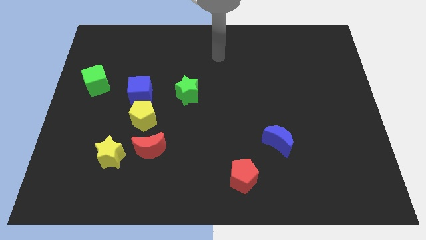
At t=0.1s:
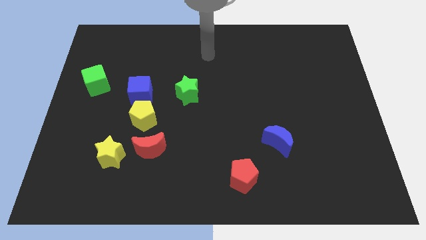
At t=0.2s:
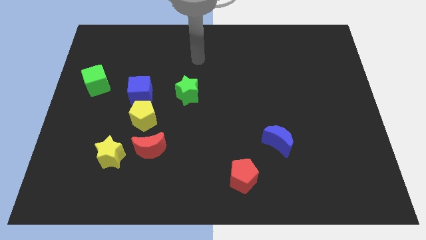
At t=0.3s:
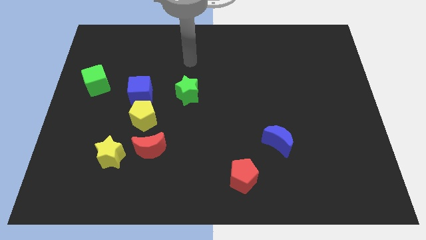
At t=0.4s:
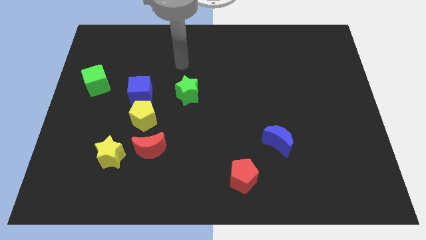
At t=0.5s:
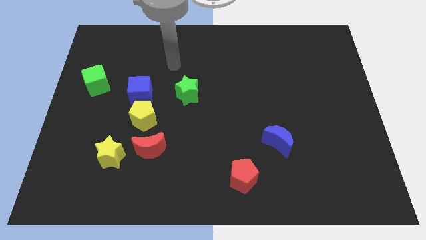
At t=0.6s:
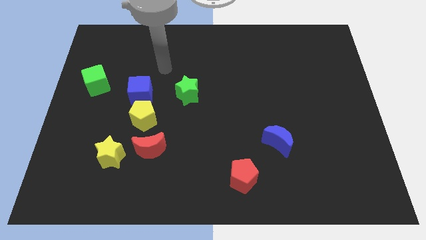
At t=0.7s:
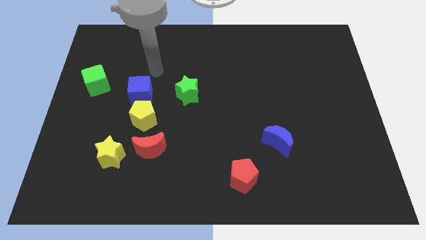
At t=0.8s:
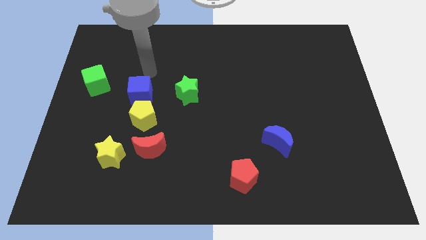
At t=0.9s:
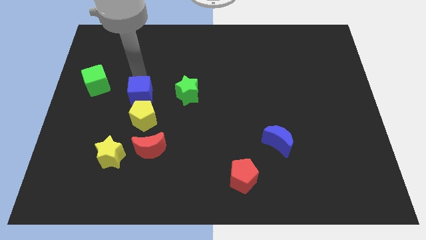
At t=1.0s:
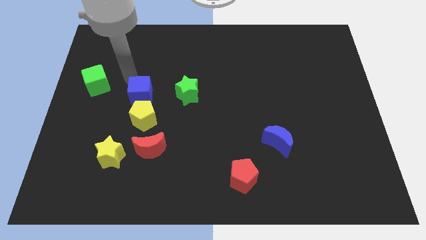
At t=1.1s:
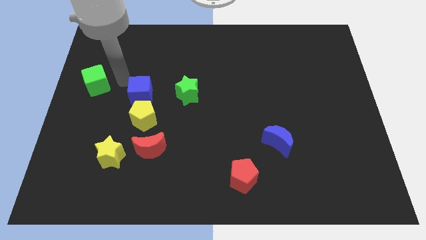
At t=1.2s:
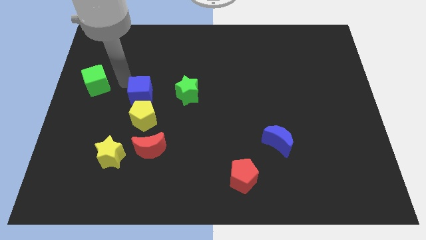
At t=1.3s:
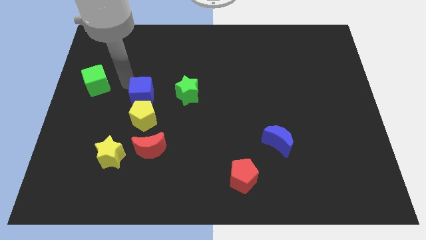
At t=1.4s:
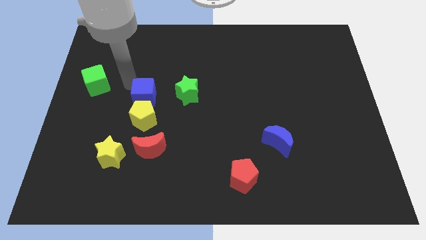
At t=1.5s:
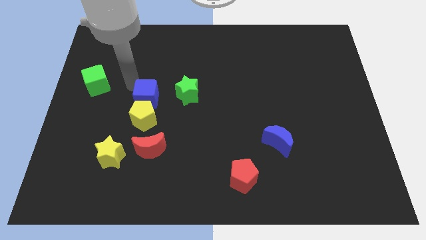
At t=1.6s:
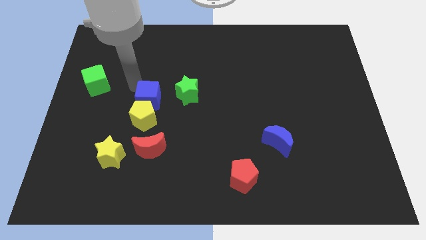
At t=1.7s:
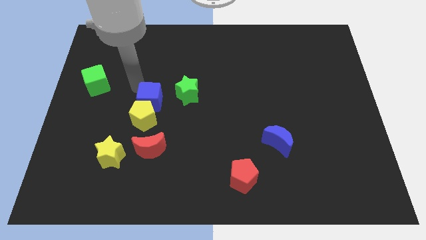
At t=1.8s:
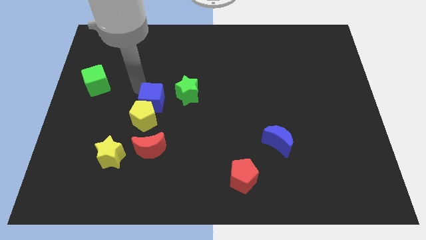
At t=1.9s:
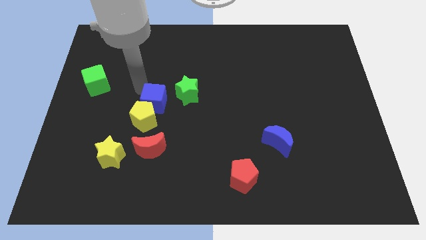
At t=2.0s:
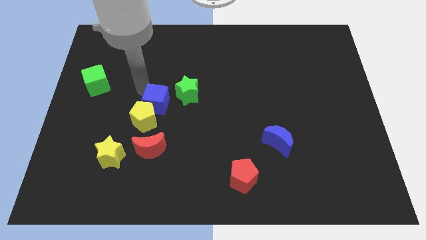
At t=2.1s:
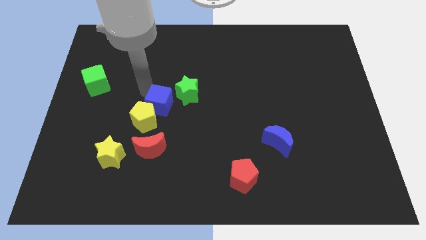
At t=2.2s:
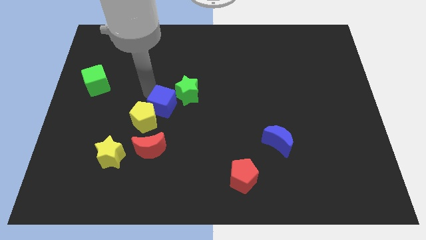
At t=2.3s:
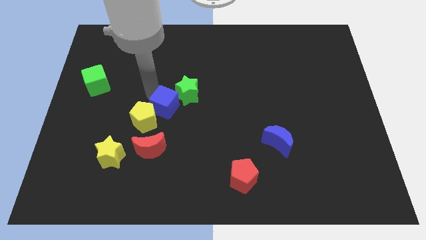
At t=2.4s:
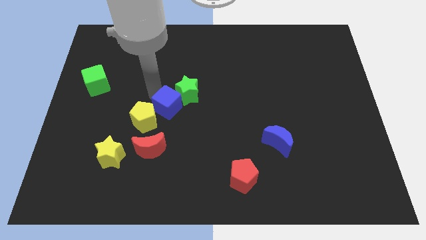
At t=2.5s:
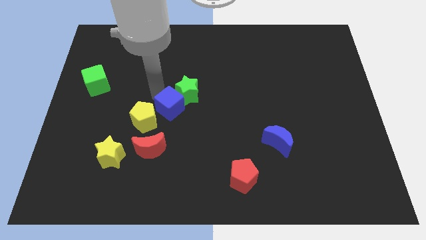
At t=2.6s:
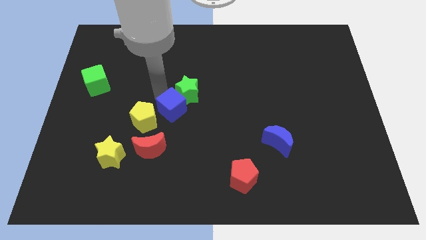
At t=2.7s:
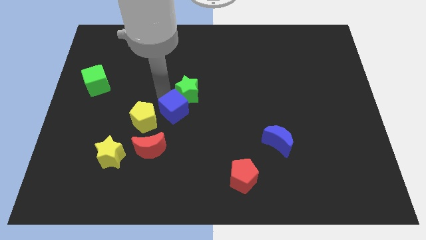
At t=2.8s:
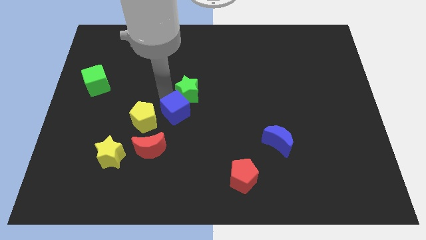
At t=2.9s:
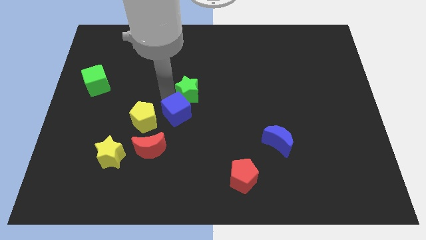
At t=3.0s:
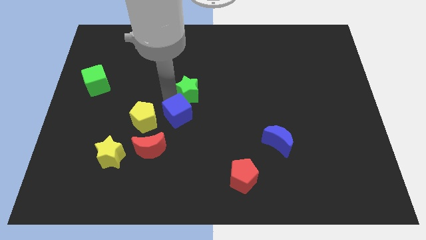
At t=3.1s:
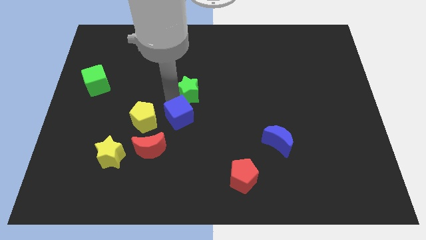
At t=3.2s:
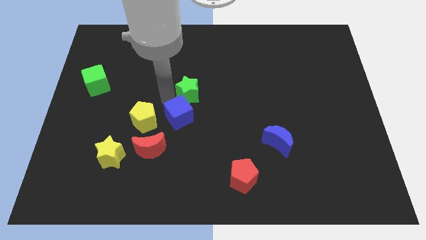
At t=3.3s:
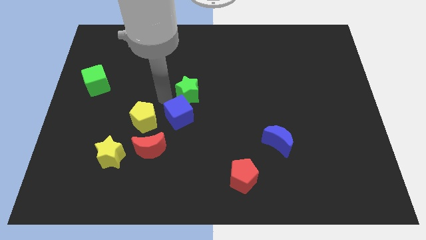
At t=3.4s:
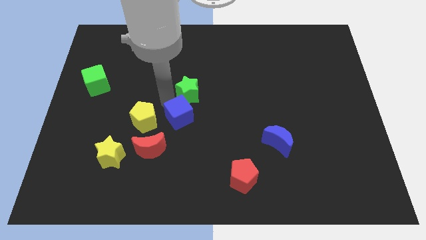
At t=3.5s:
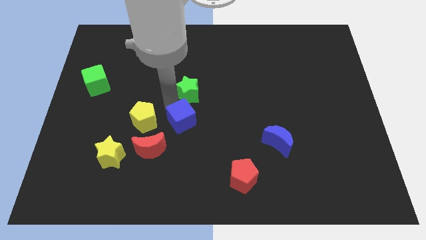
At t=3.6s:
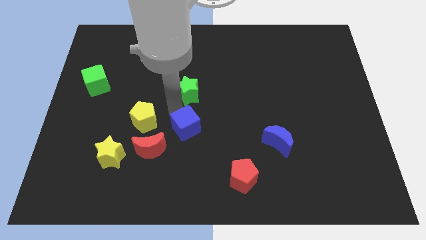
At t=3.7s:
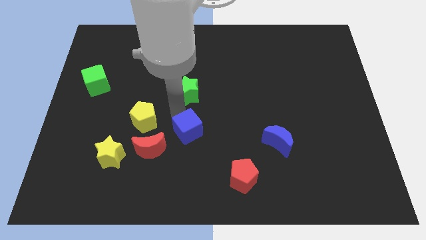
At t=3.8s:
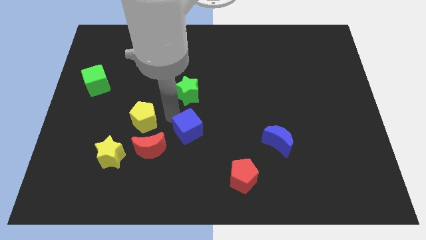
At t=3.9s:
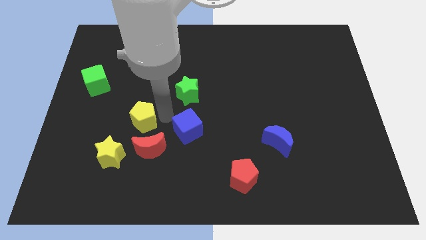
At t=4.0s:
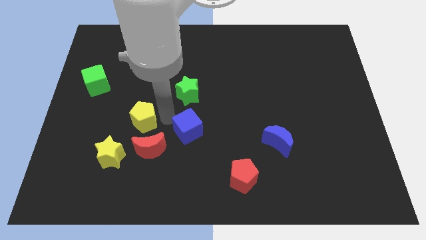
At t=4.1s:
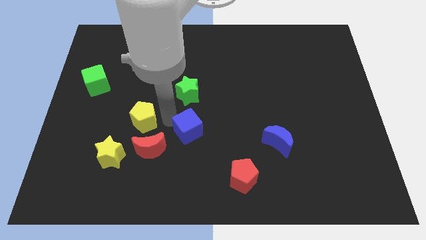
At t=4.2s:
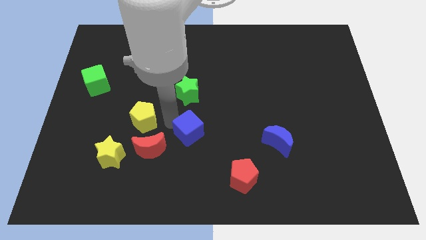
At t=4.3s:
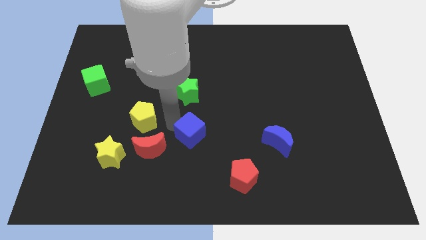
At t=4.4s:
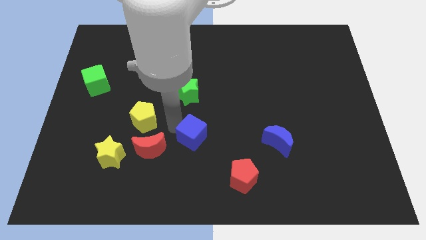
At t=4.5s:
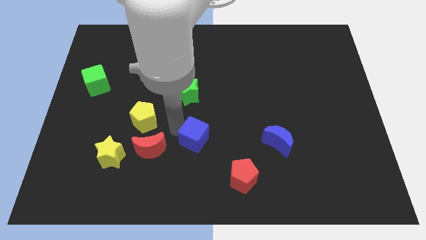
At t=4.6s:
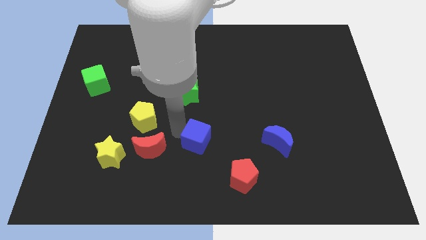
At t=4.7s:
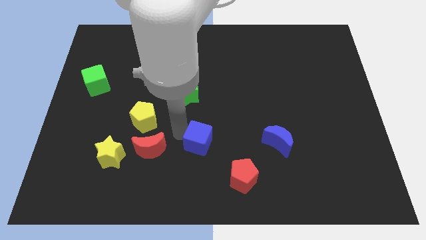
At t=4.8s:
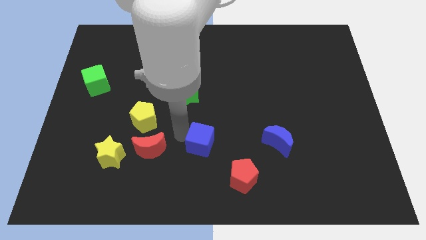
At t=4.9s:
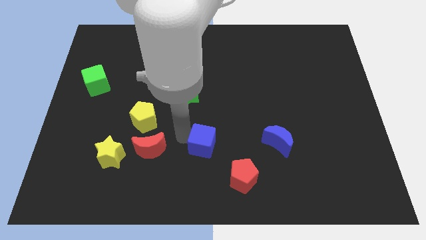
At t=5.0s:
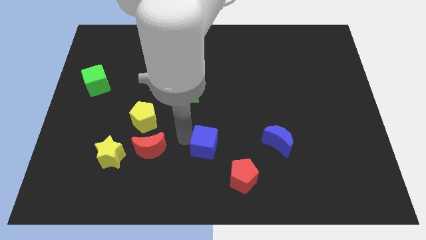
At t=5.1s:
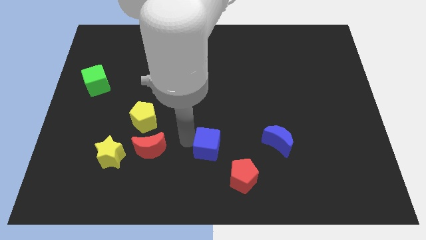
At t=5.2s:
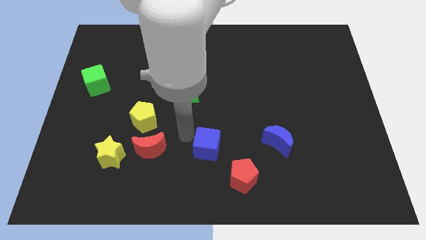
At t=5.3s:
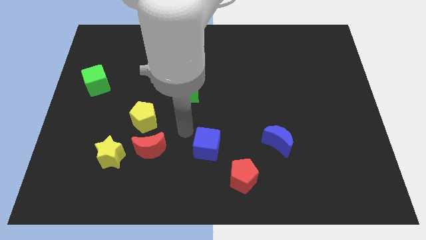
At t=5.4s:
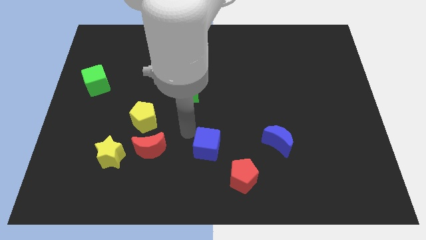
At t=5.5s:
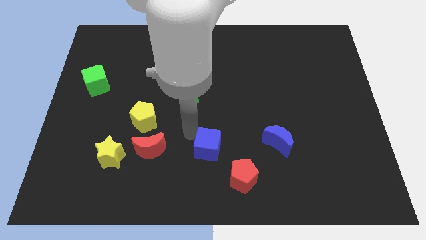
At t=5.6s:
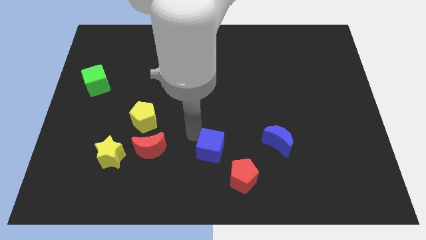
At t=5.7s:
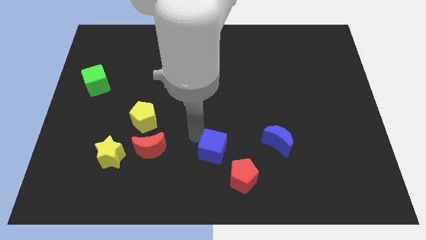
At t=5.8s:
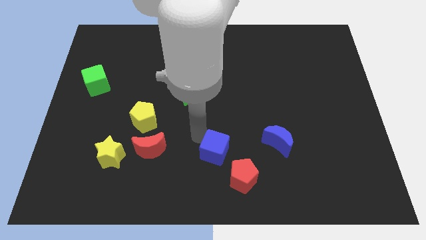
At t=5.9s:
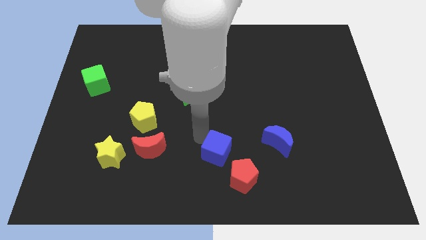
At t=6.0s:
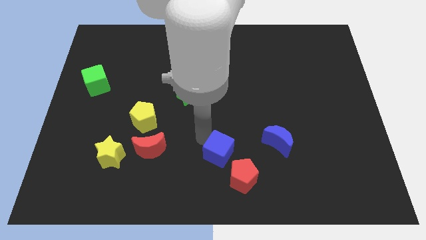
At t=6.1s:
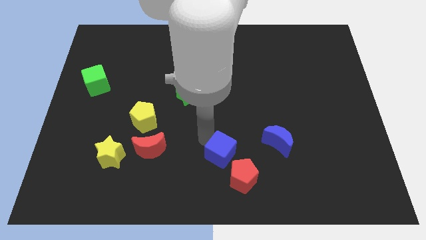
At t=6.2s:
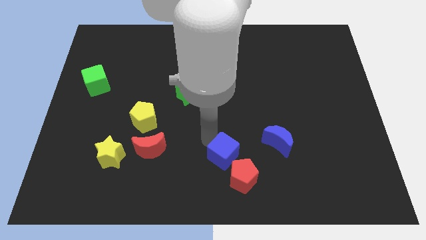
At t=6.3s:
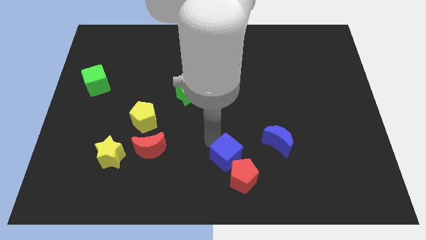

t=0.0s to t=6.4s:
put the blue cube towards the red pentagon
